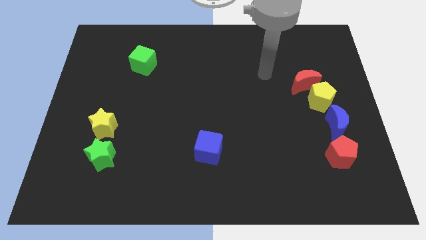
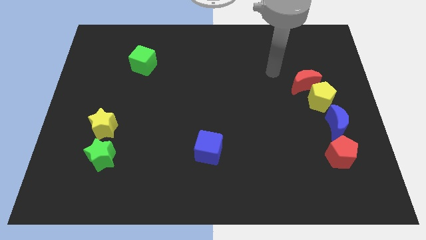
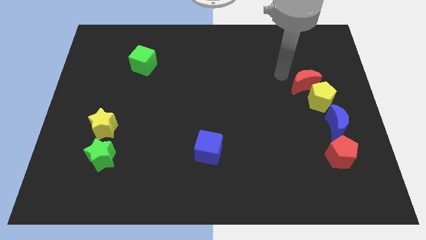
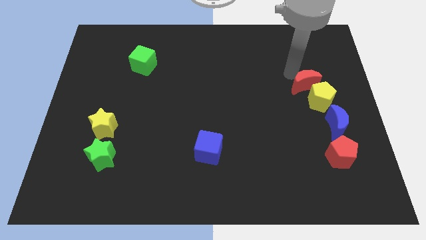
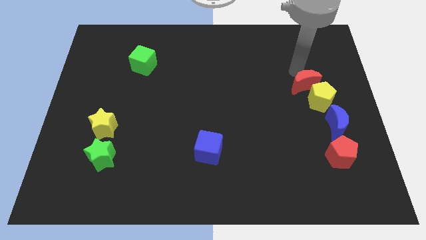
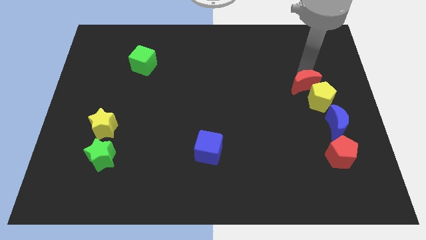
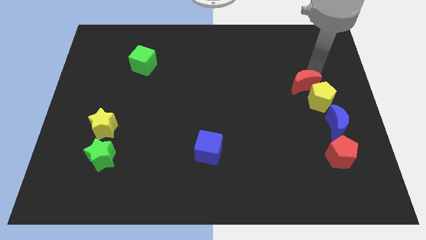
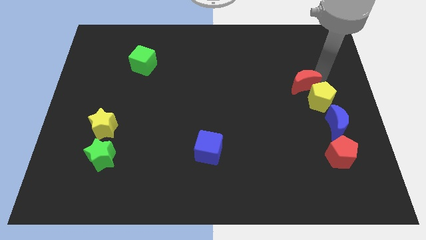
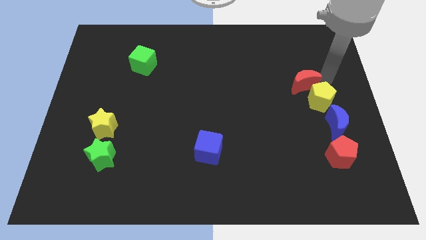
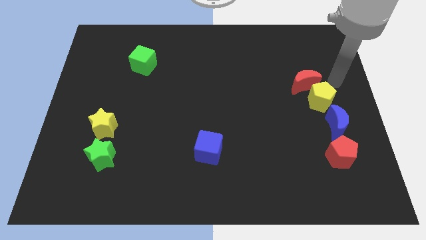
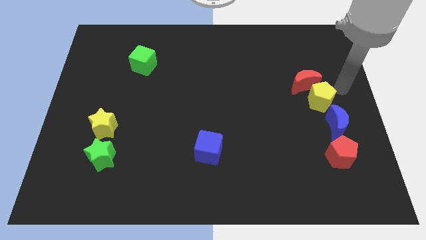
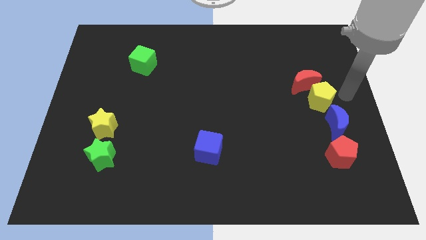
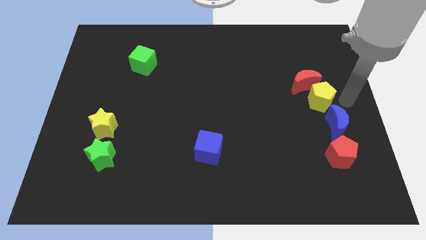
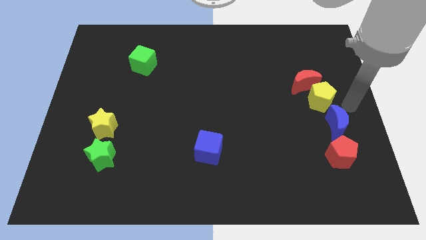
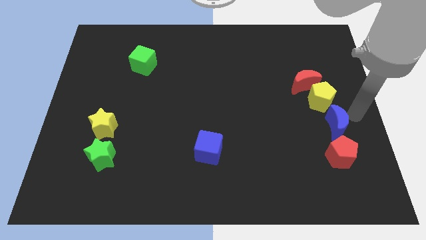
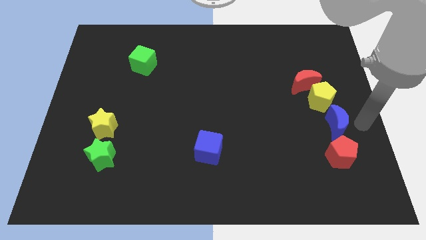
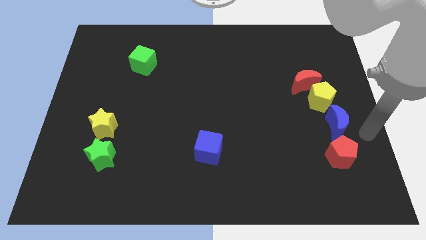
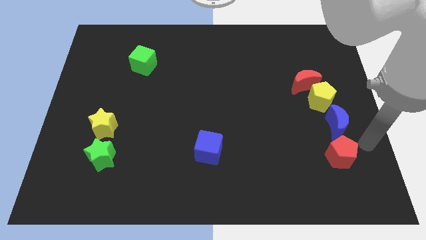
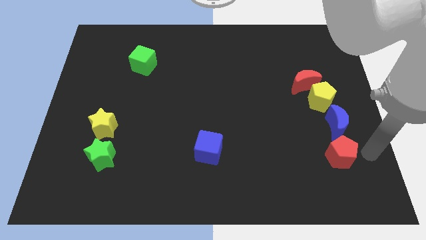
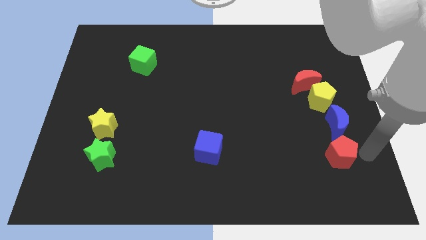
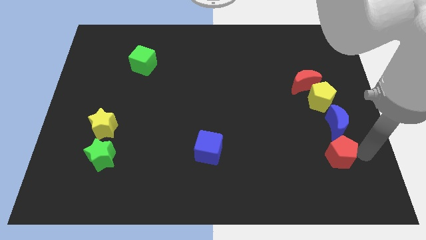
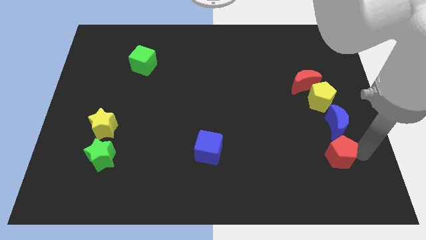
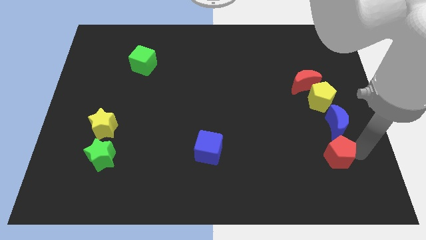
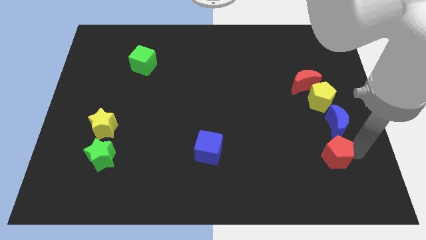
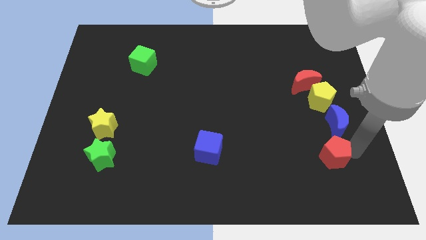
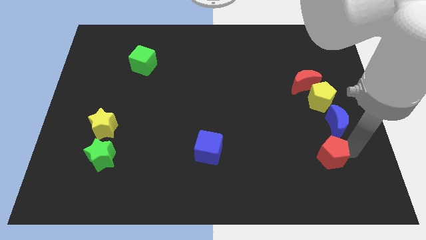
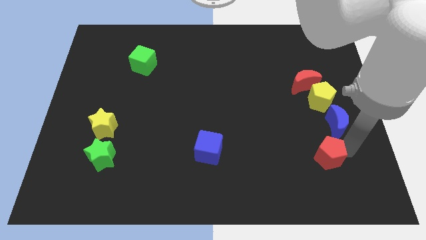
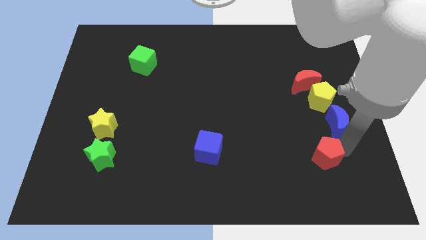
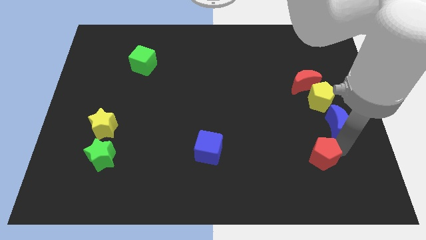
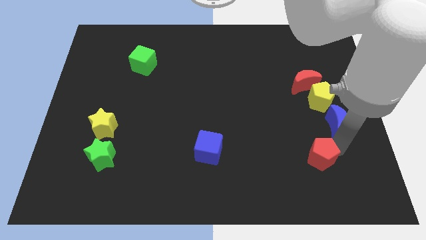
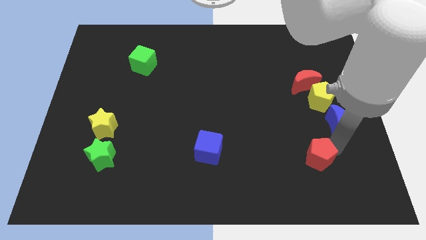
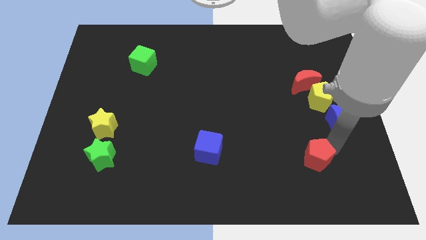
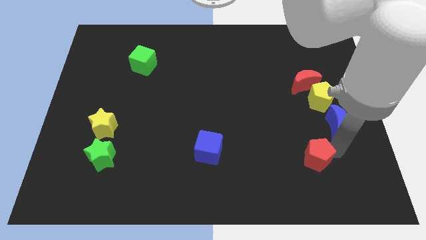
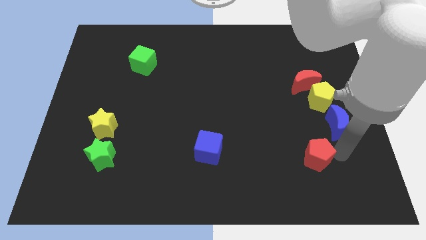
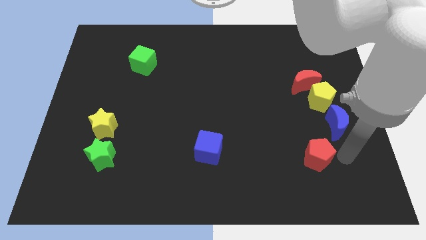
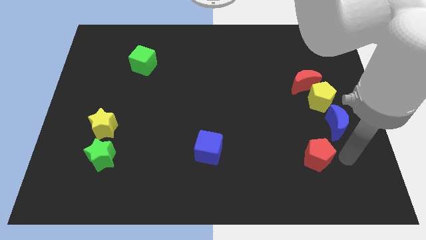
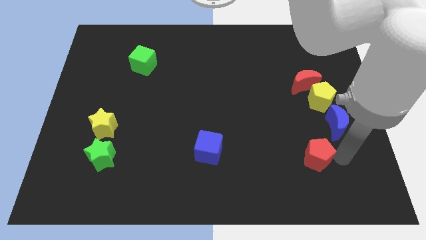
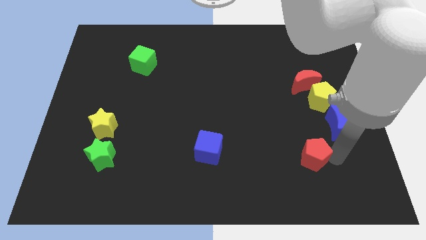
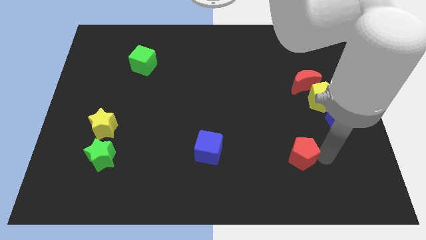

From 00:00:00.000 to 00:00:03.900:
move the red pentagon somewhat left

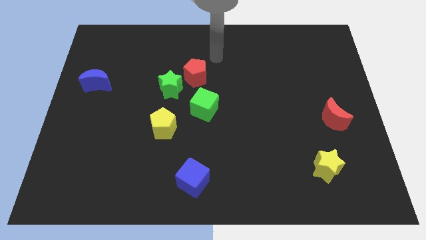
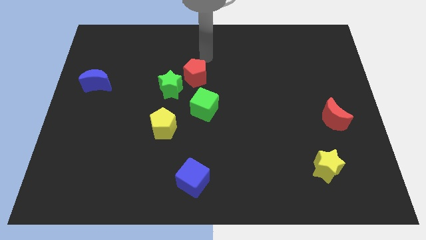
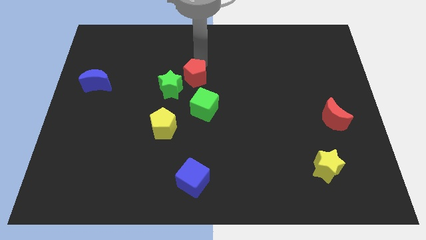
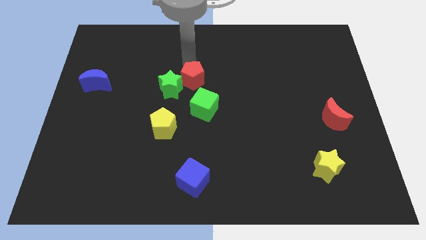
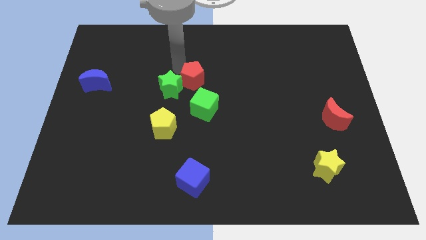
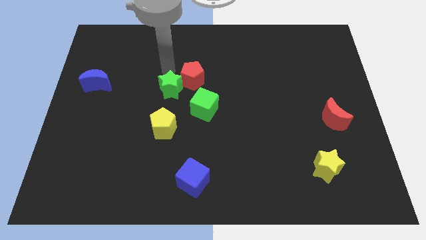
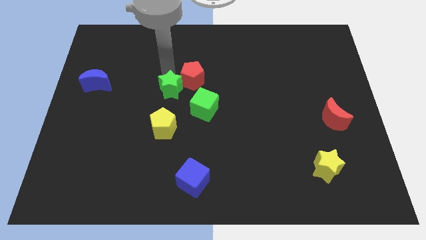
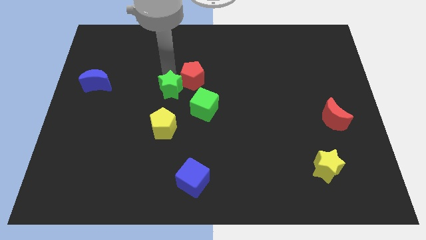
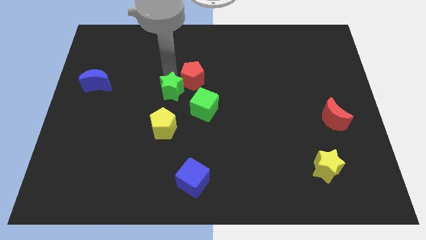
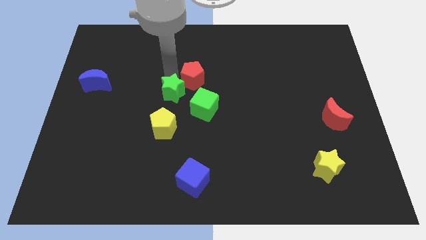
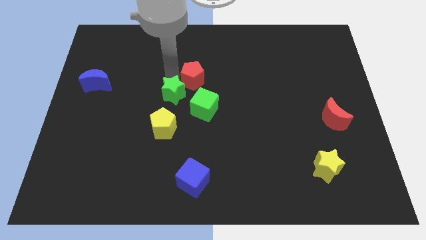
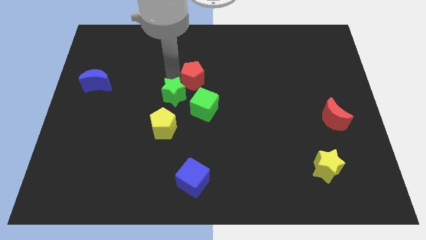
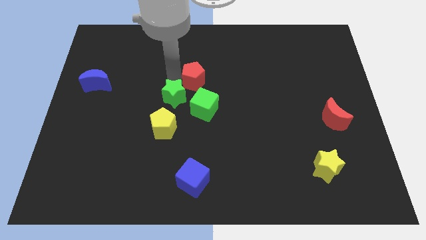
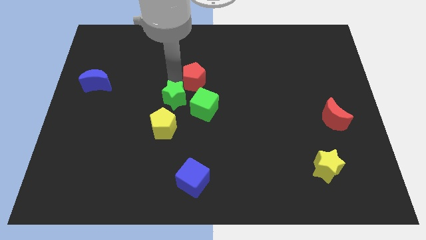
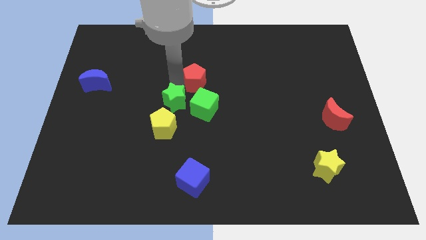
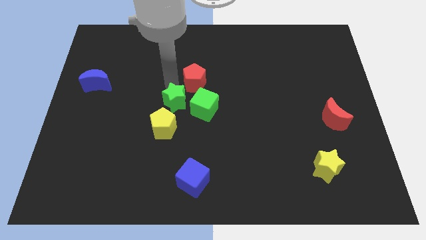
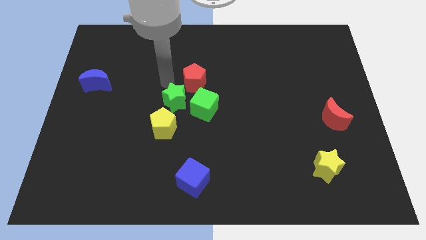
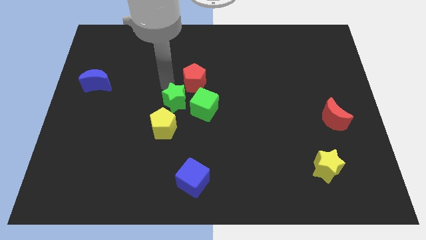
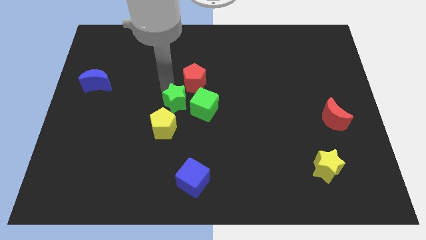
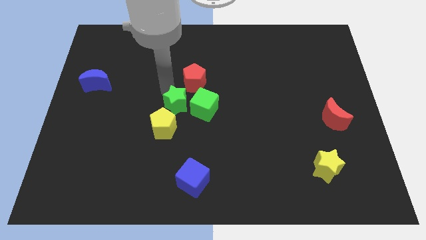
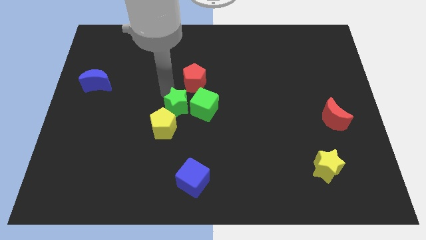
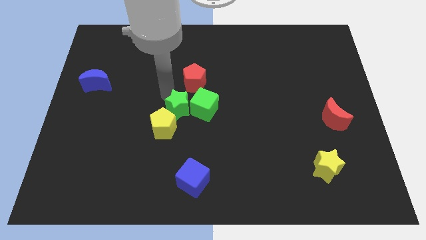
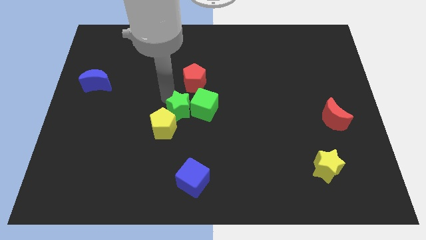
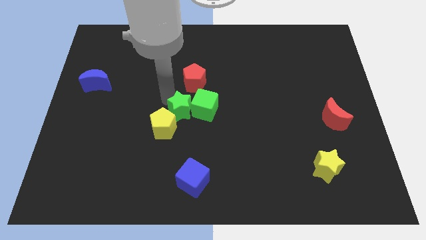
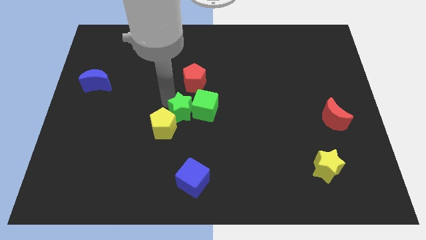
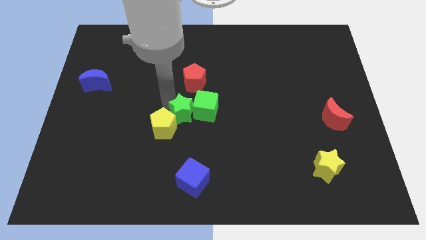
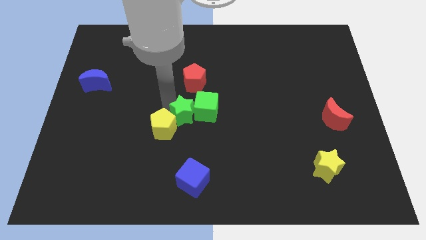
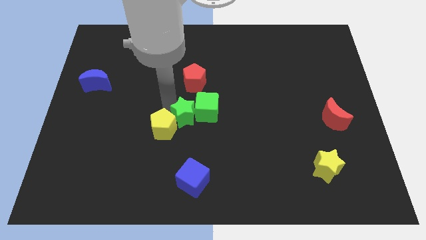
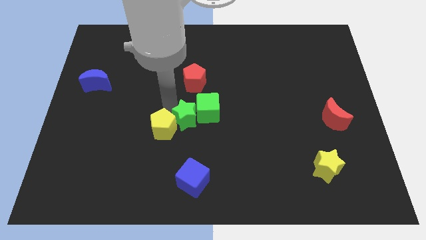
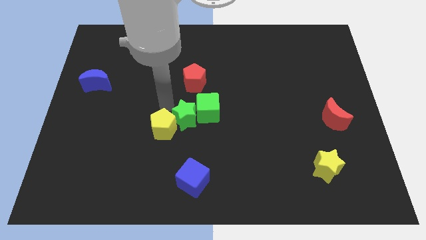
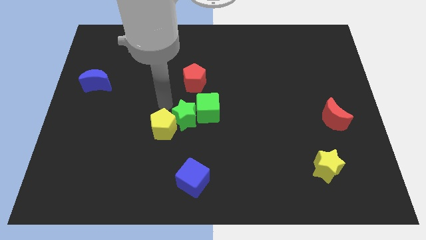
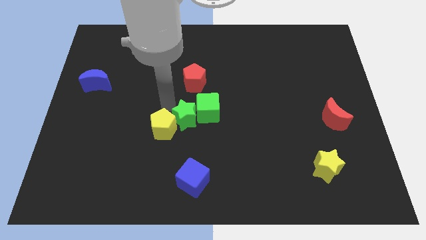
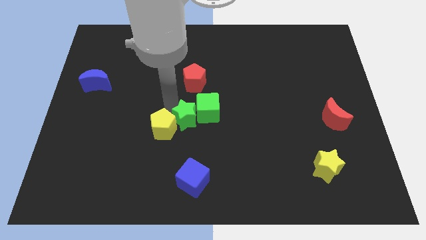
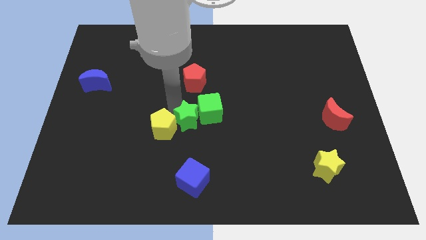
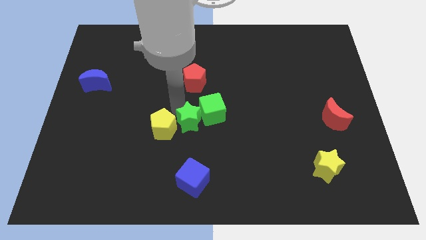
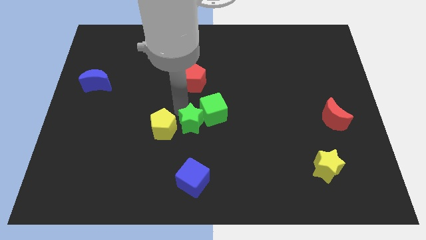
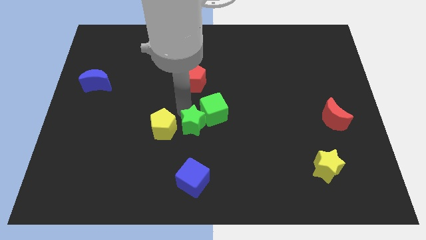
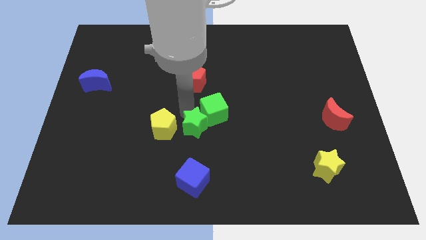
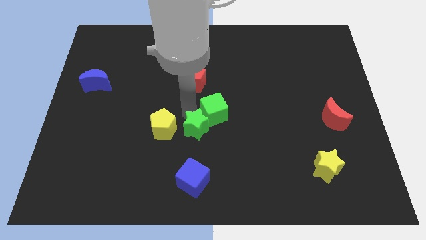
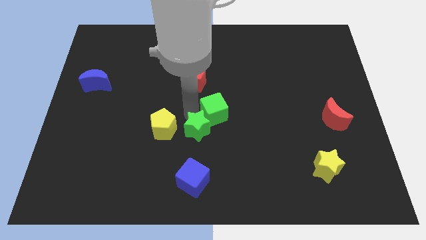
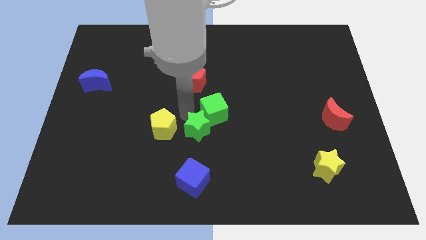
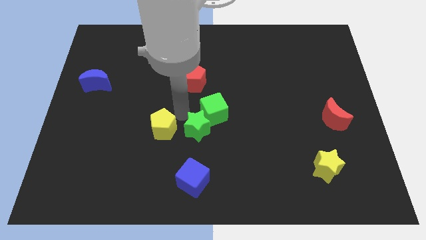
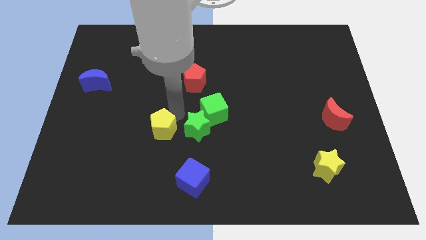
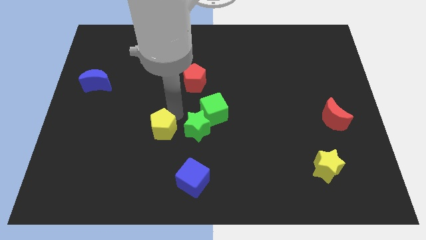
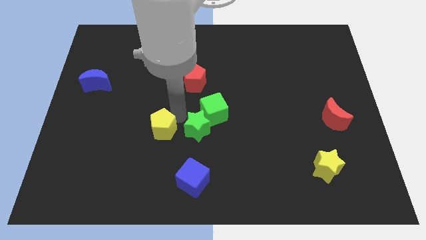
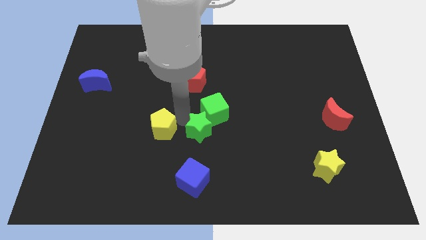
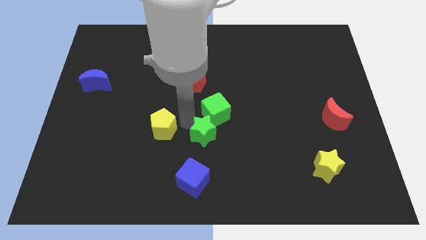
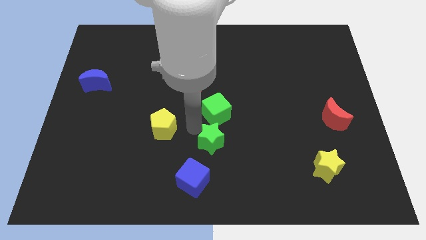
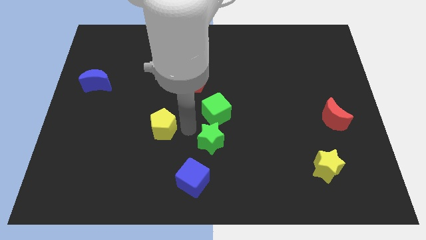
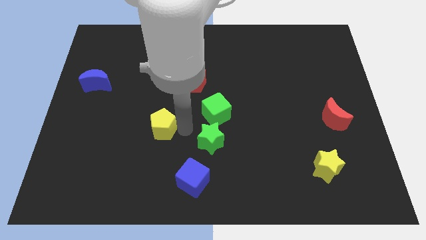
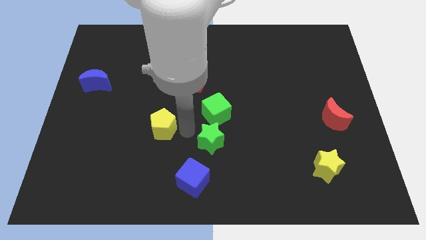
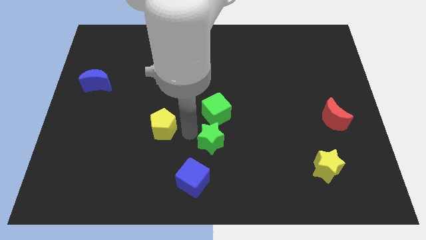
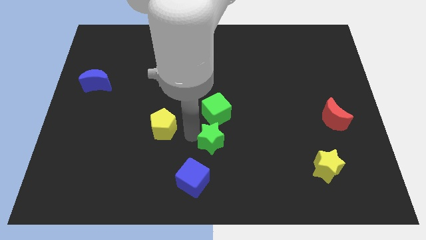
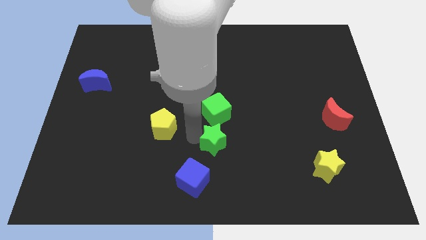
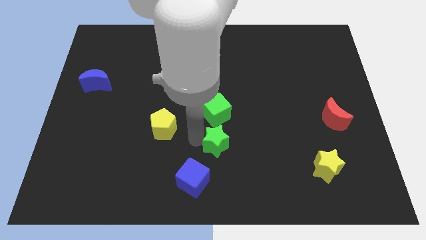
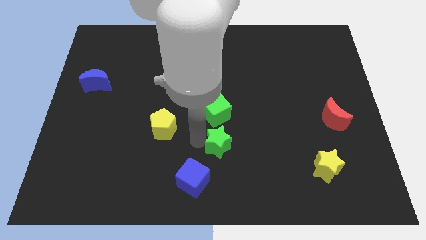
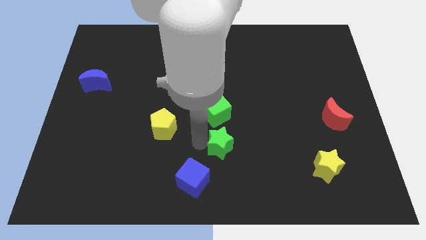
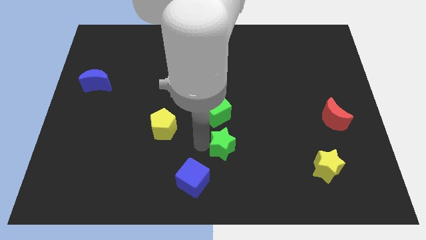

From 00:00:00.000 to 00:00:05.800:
push the green star down and right diagonally
